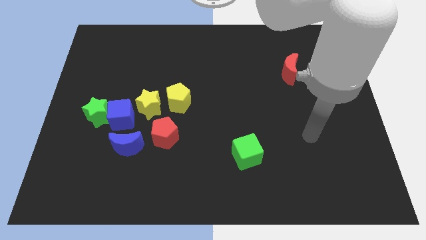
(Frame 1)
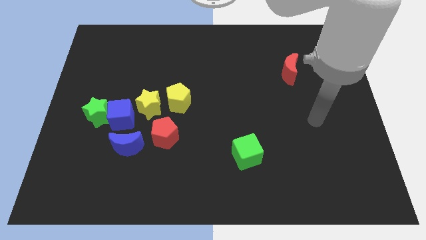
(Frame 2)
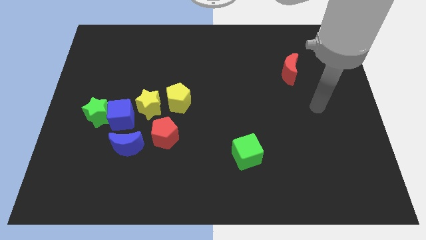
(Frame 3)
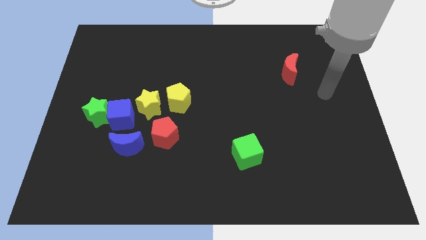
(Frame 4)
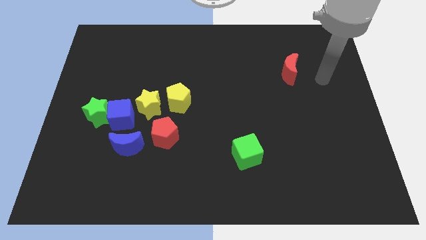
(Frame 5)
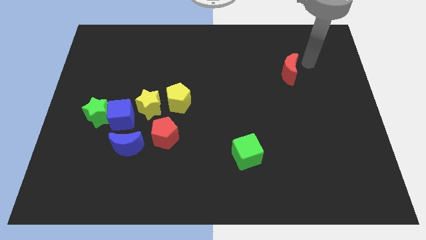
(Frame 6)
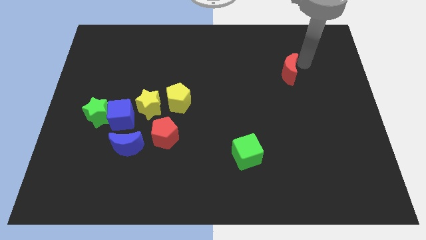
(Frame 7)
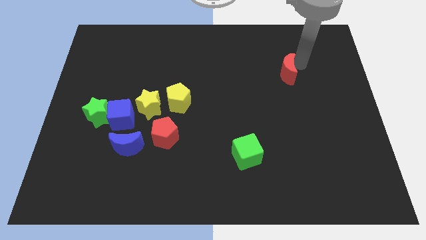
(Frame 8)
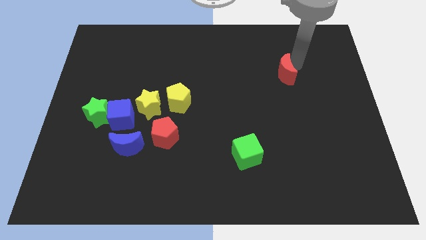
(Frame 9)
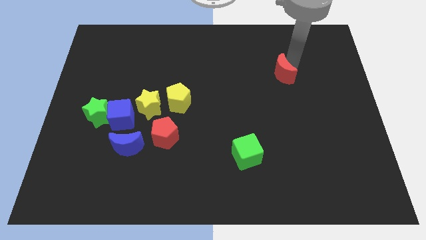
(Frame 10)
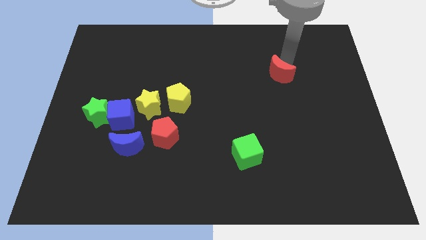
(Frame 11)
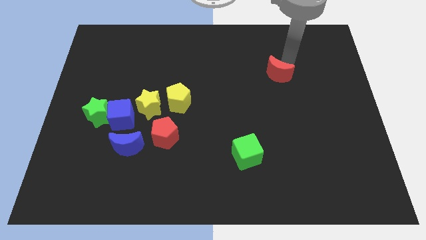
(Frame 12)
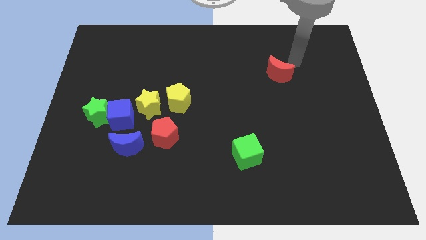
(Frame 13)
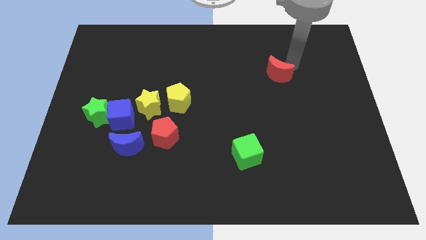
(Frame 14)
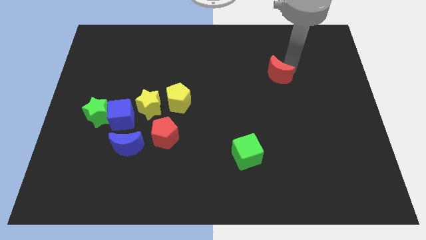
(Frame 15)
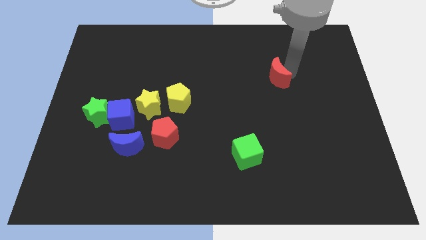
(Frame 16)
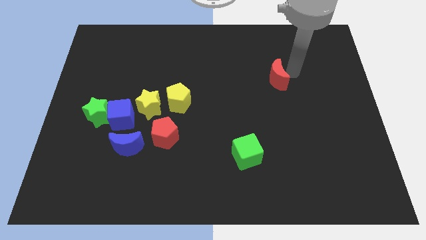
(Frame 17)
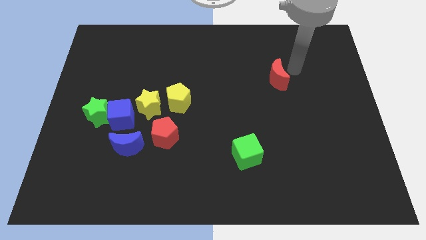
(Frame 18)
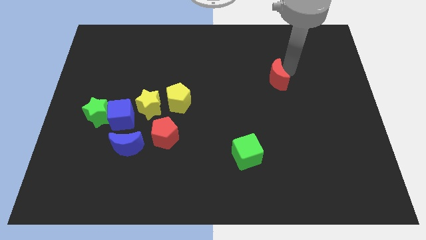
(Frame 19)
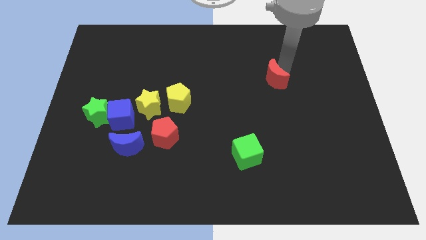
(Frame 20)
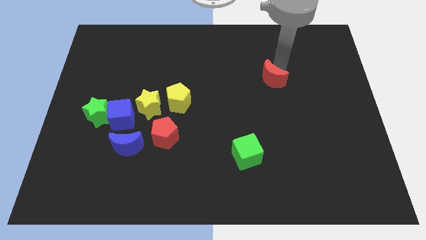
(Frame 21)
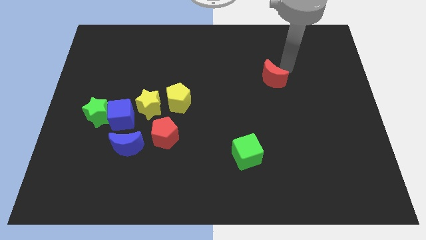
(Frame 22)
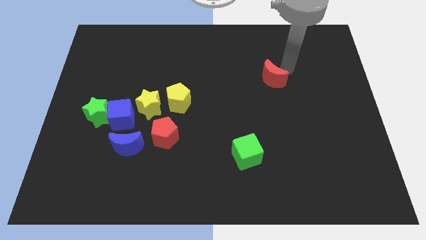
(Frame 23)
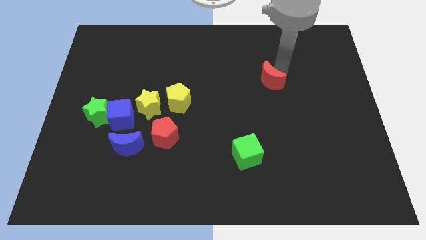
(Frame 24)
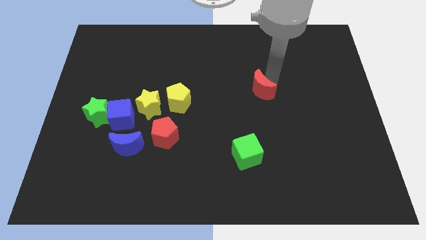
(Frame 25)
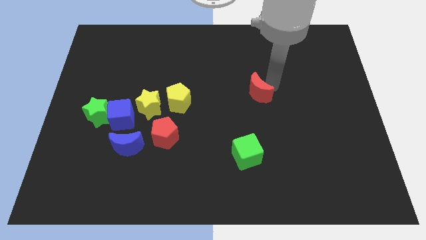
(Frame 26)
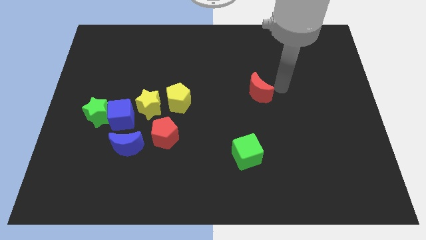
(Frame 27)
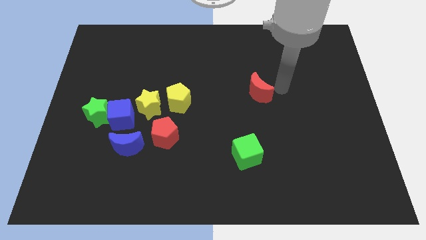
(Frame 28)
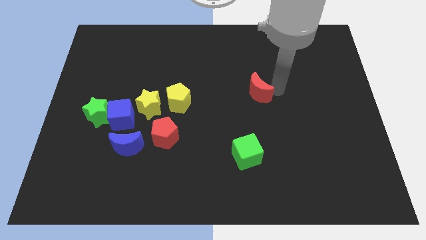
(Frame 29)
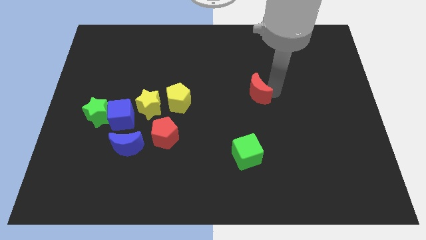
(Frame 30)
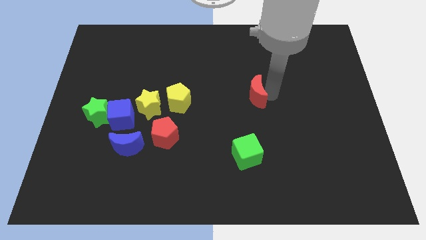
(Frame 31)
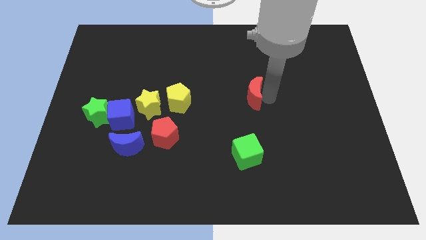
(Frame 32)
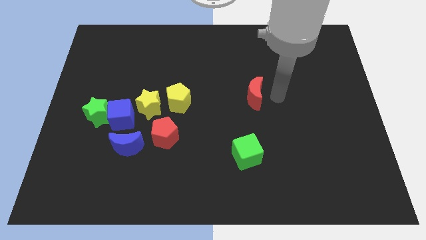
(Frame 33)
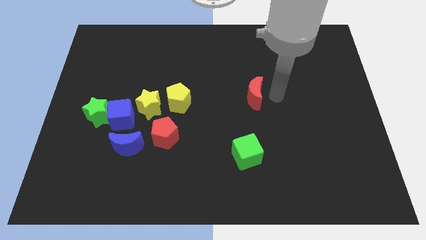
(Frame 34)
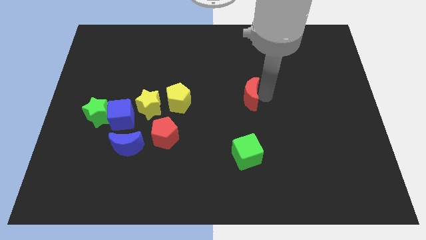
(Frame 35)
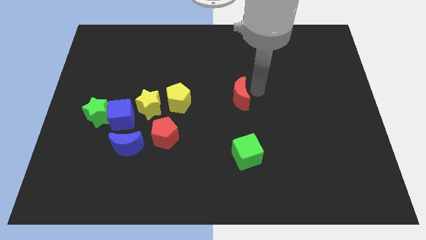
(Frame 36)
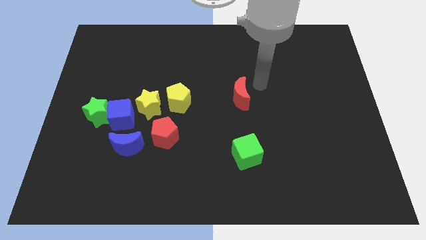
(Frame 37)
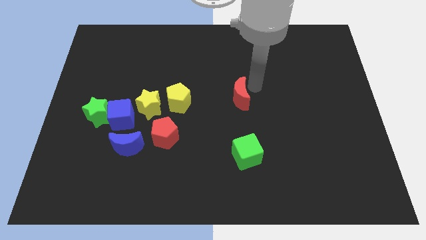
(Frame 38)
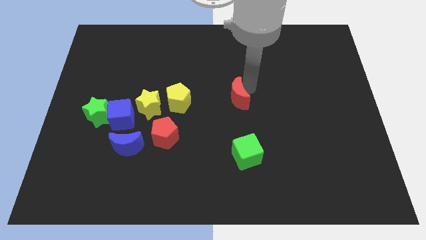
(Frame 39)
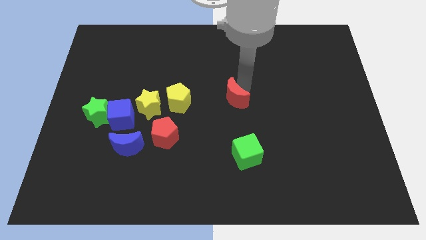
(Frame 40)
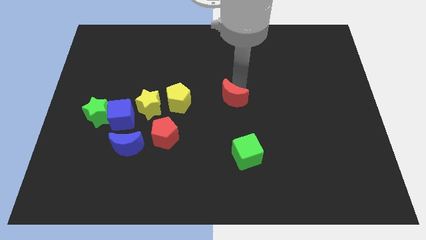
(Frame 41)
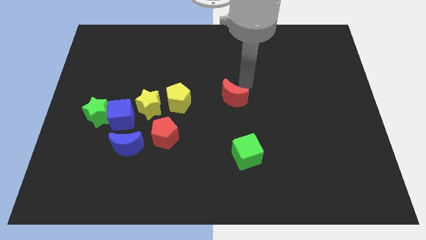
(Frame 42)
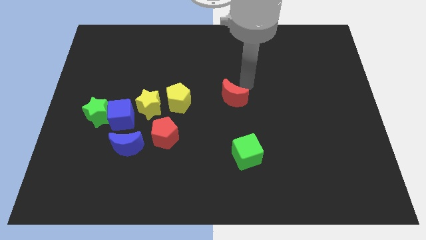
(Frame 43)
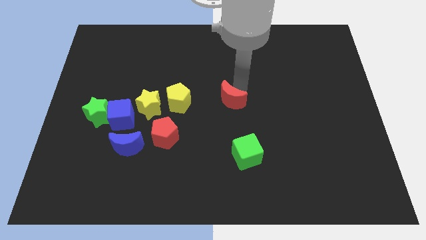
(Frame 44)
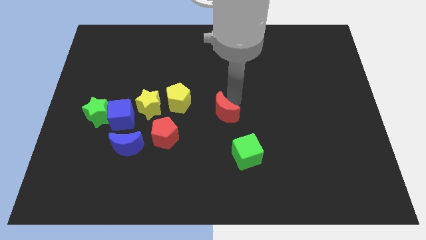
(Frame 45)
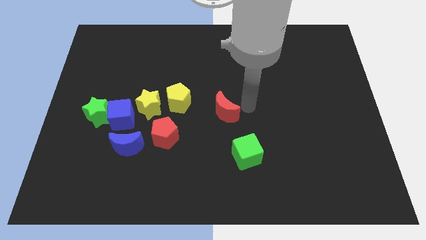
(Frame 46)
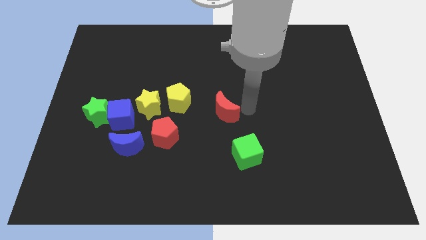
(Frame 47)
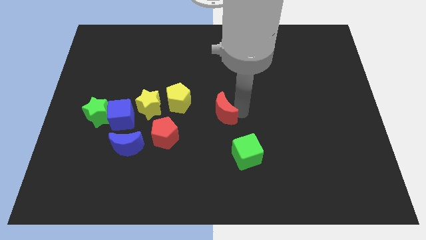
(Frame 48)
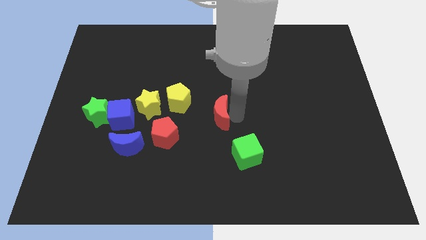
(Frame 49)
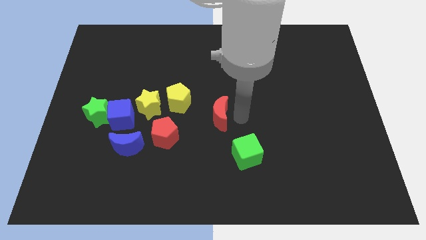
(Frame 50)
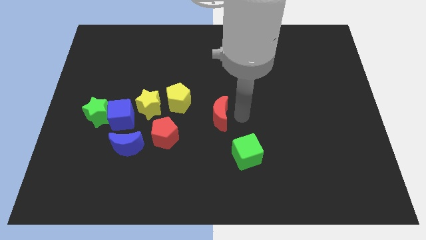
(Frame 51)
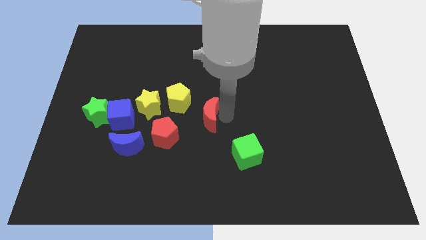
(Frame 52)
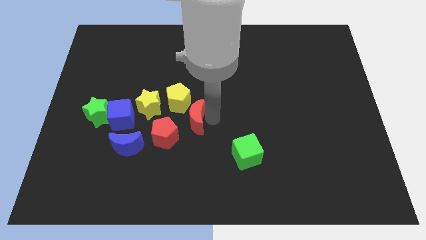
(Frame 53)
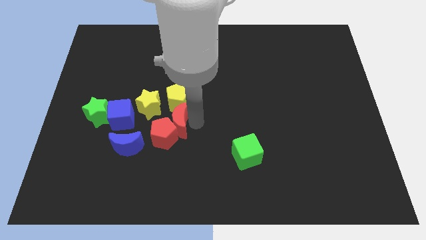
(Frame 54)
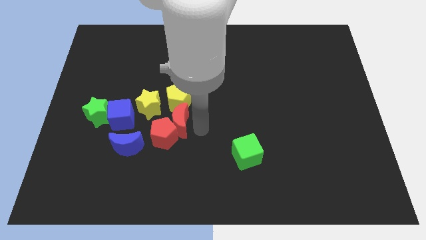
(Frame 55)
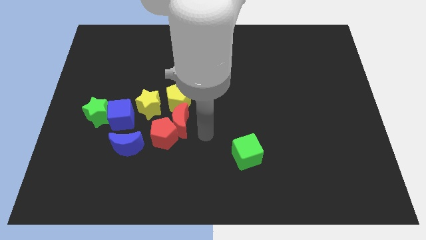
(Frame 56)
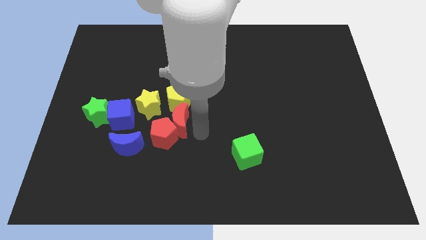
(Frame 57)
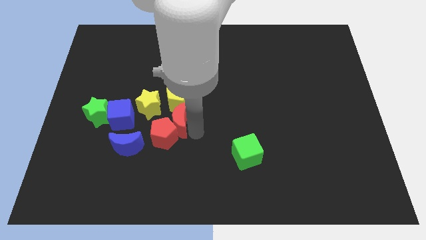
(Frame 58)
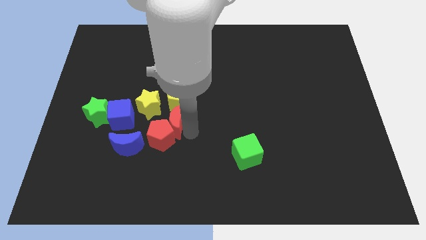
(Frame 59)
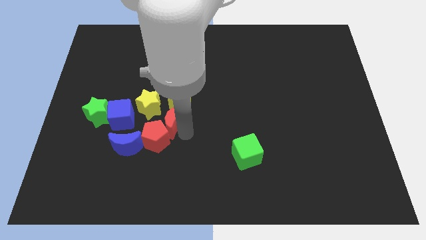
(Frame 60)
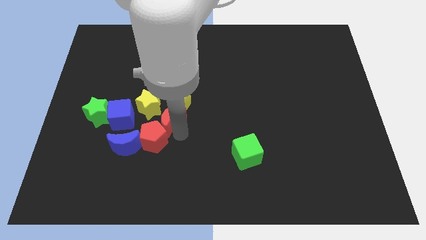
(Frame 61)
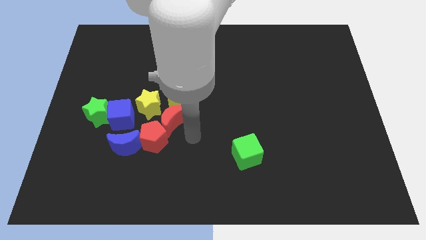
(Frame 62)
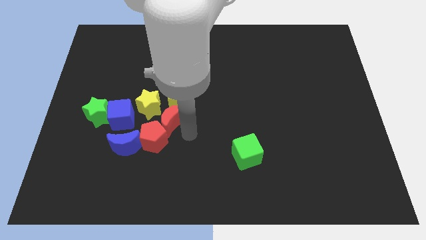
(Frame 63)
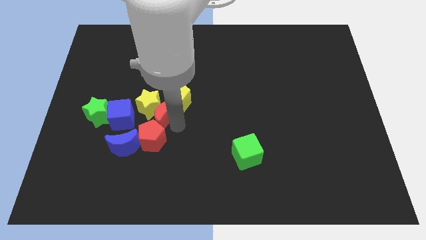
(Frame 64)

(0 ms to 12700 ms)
push the red moon to the yellow star

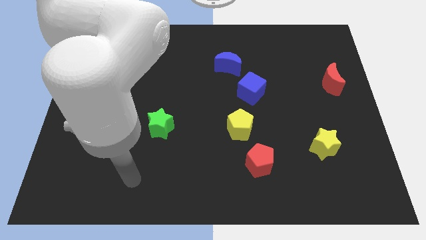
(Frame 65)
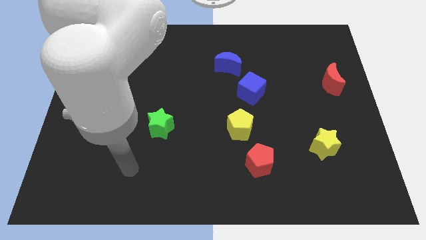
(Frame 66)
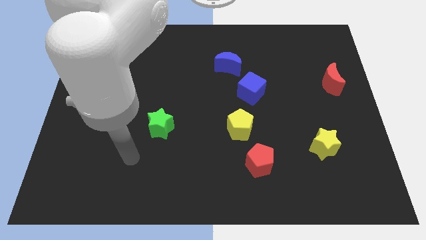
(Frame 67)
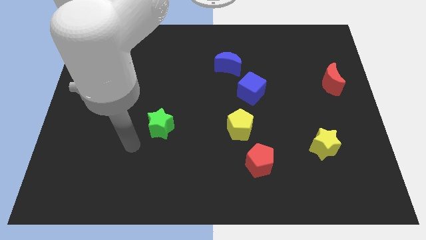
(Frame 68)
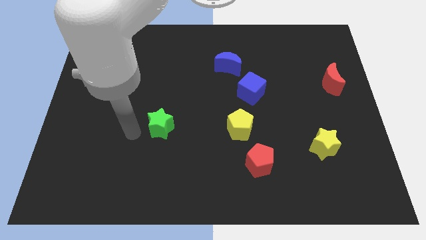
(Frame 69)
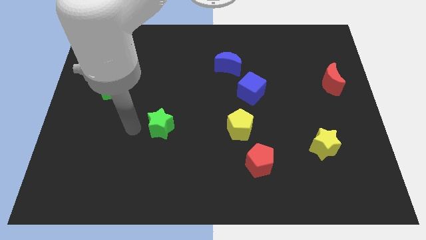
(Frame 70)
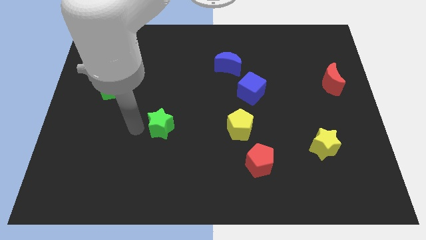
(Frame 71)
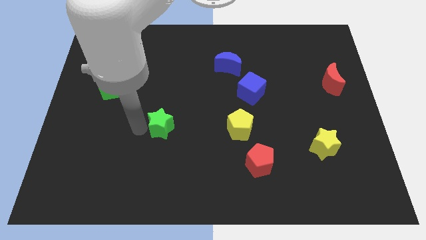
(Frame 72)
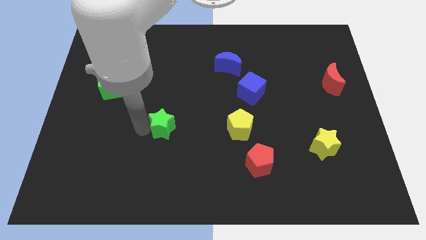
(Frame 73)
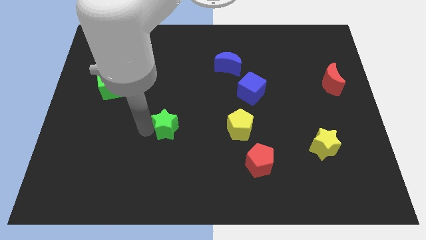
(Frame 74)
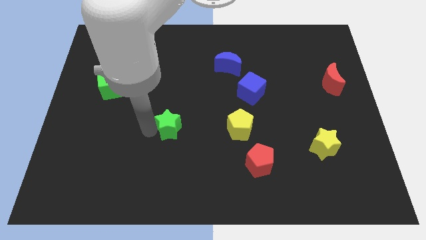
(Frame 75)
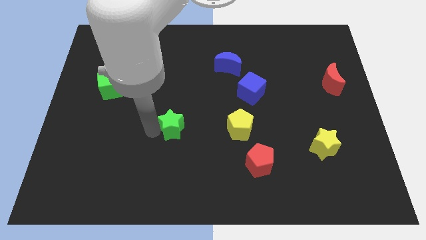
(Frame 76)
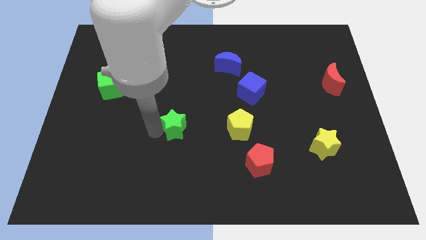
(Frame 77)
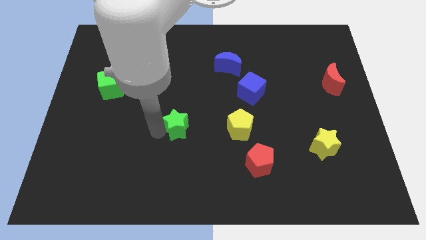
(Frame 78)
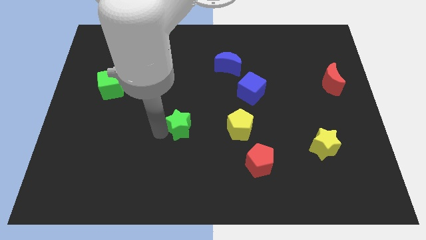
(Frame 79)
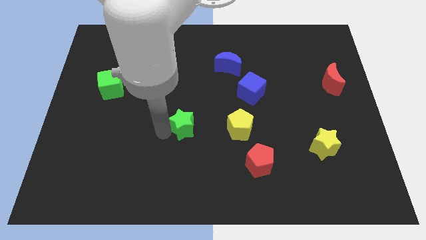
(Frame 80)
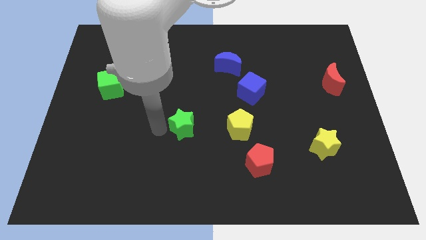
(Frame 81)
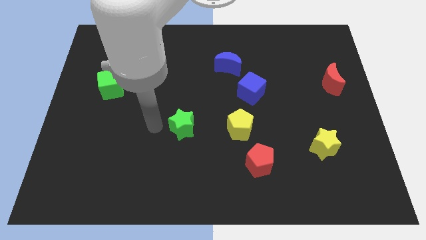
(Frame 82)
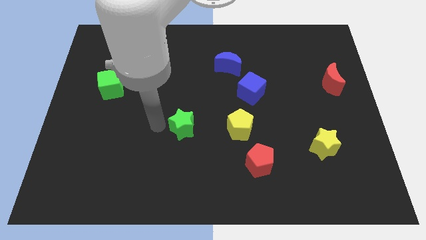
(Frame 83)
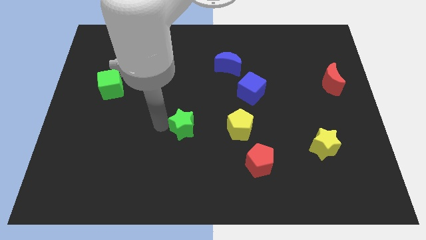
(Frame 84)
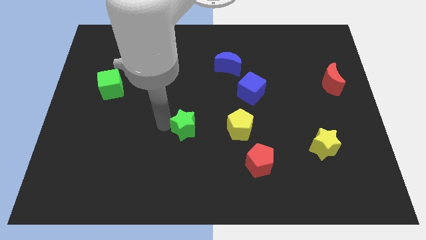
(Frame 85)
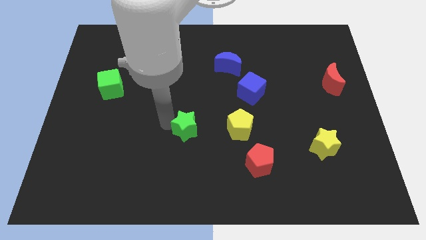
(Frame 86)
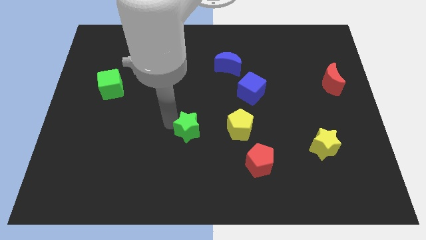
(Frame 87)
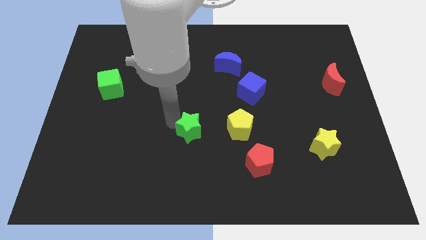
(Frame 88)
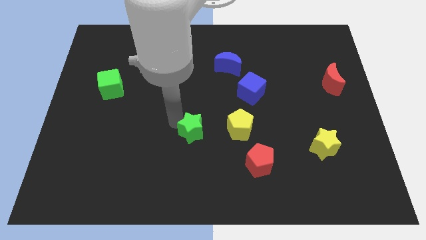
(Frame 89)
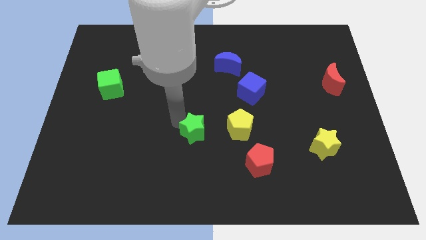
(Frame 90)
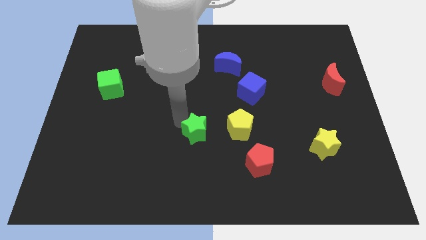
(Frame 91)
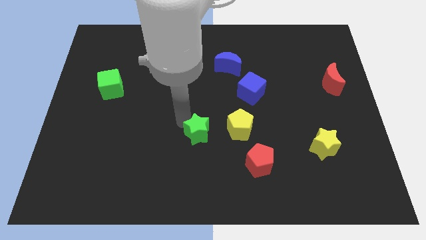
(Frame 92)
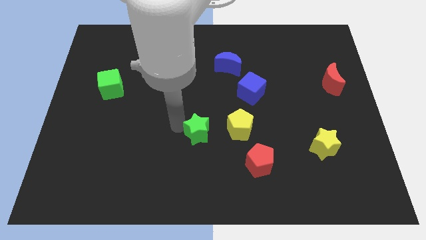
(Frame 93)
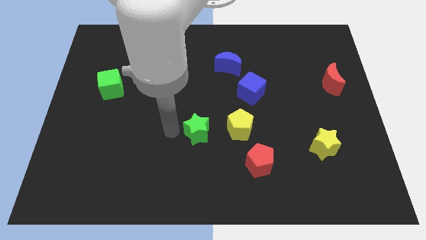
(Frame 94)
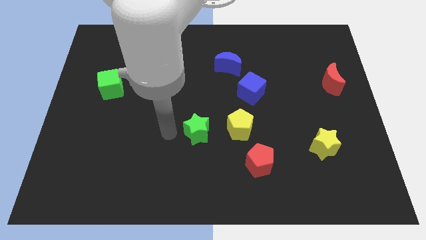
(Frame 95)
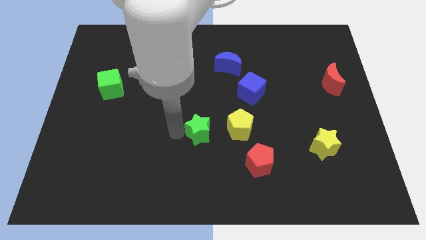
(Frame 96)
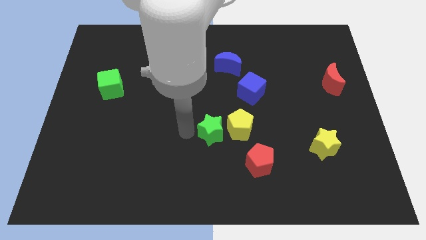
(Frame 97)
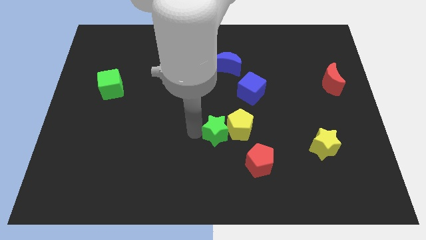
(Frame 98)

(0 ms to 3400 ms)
slide the green star to the yellow pentagon
